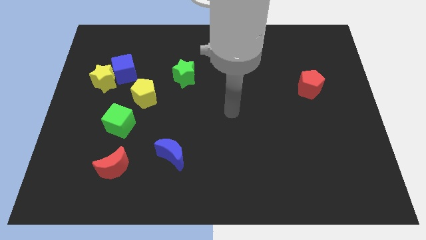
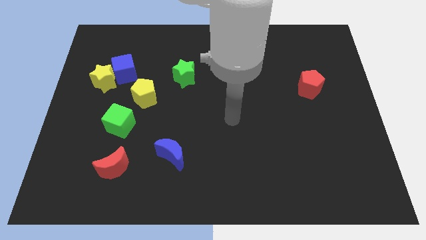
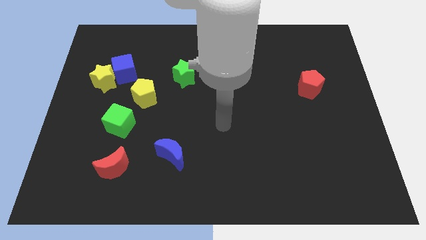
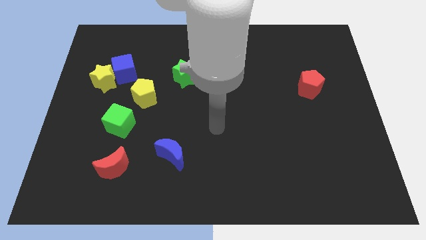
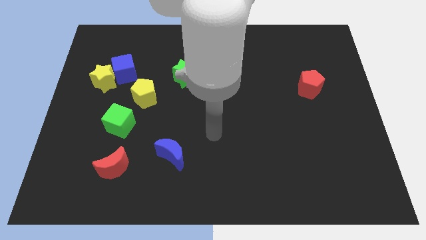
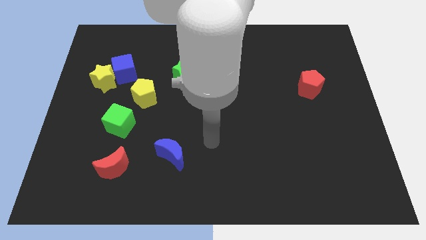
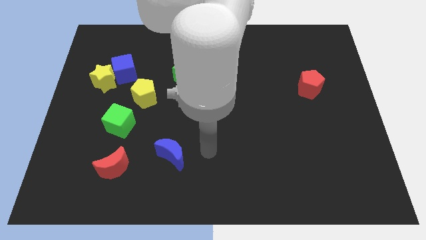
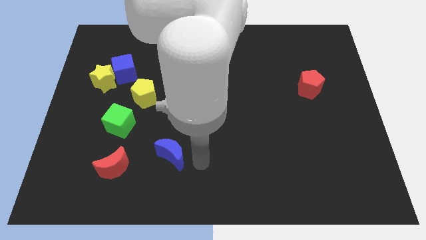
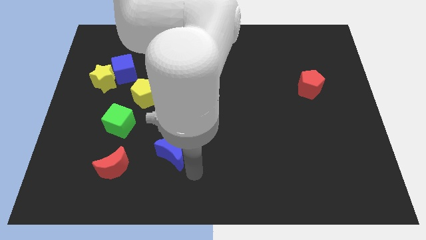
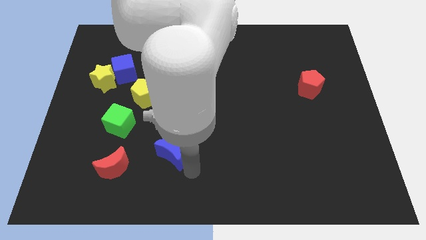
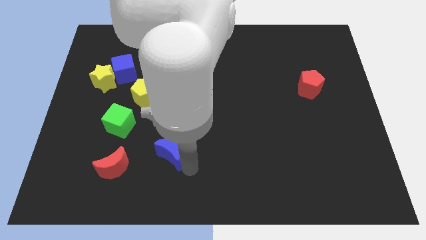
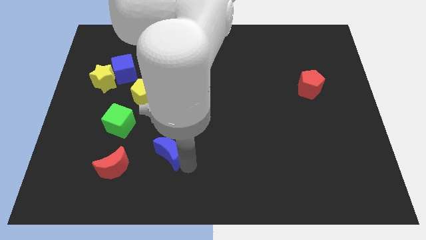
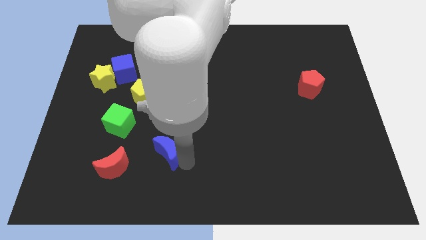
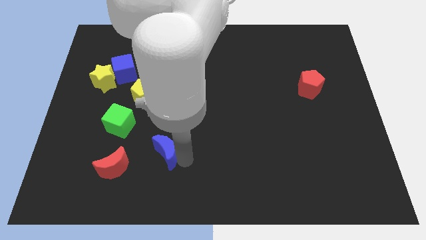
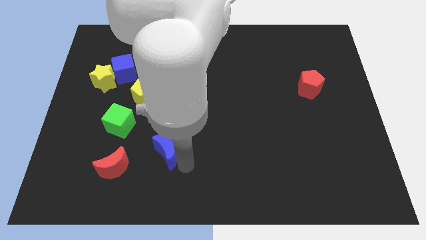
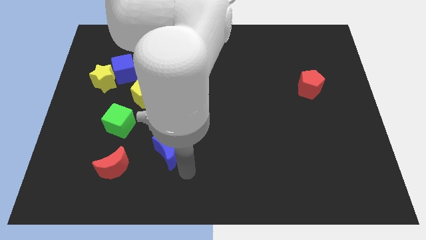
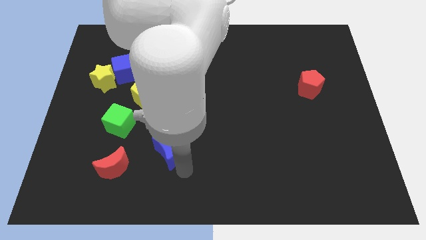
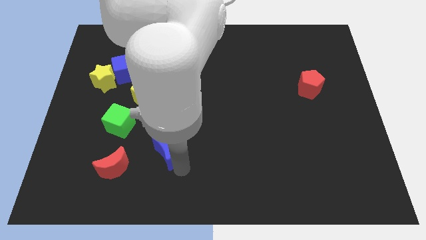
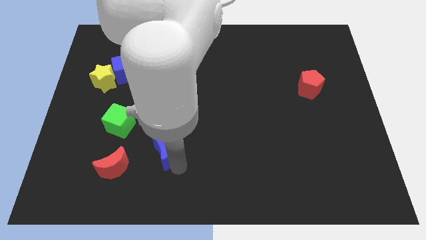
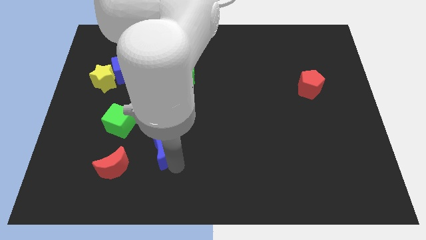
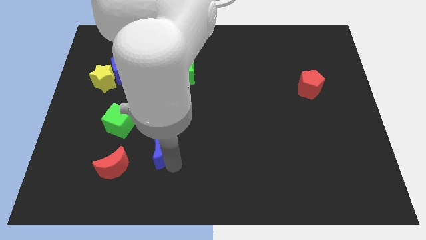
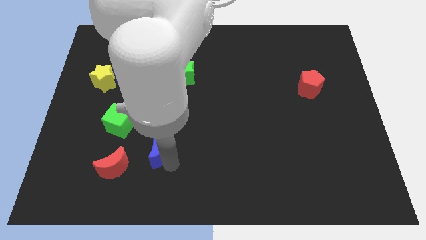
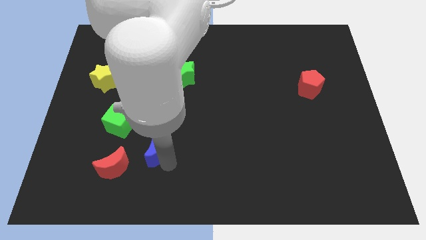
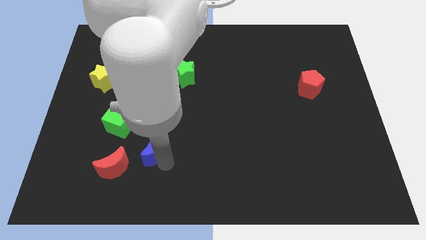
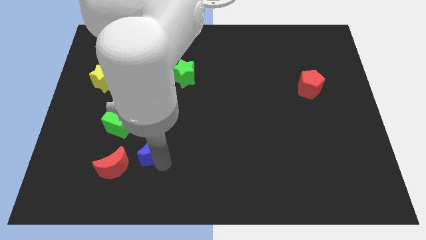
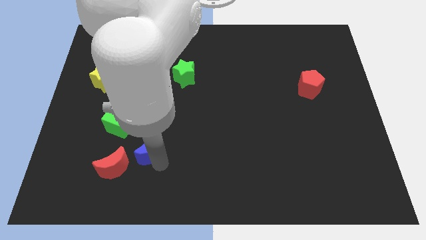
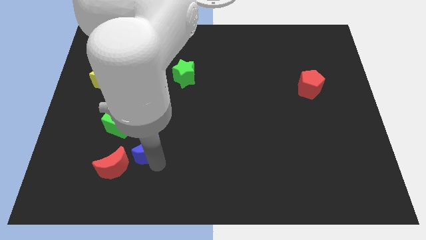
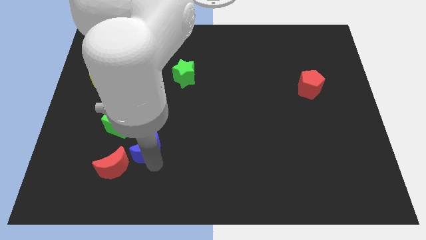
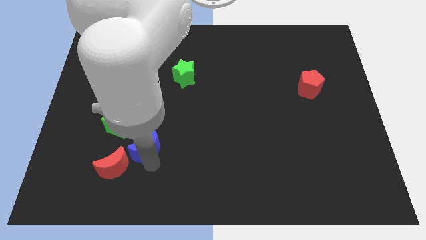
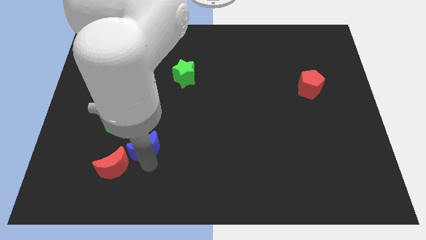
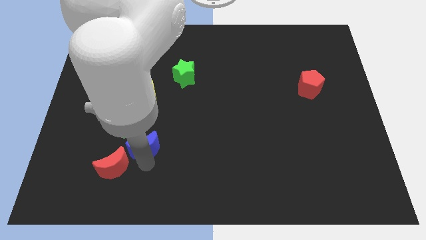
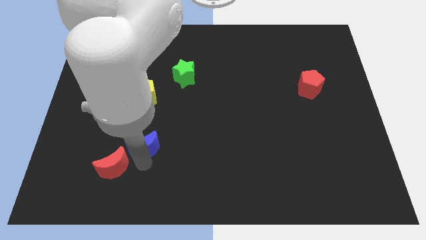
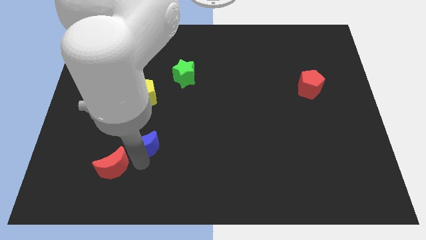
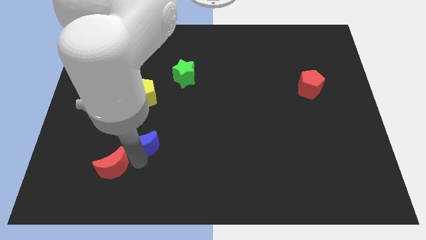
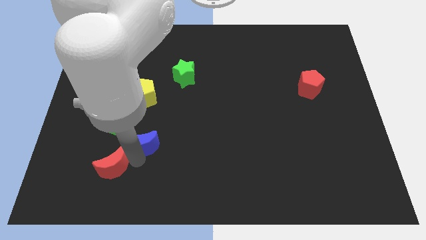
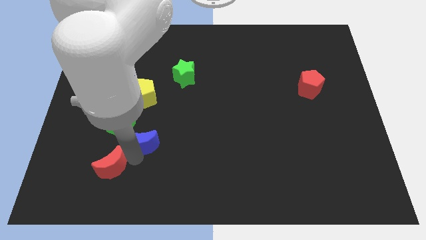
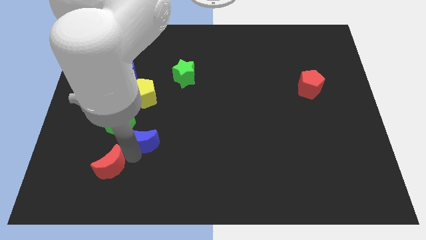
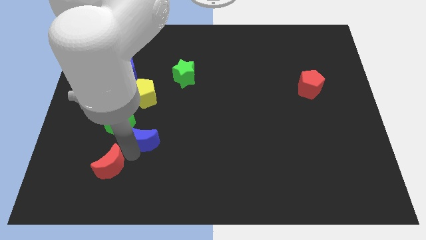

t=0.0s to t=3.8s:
slightly push the blue moon upwards and left

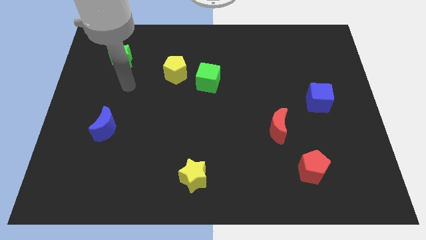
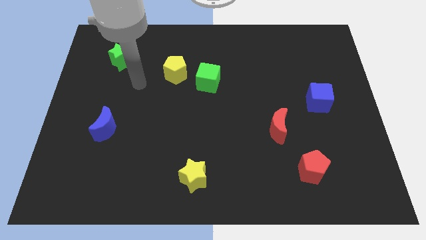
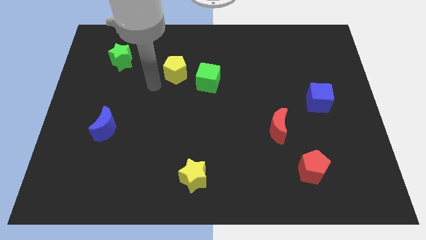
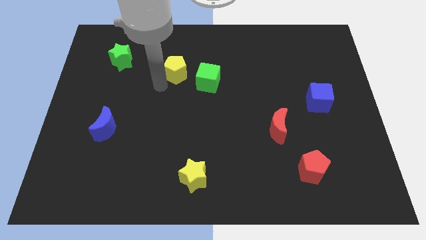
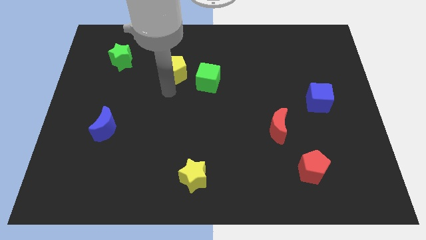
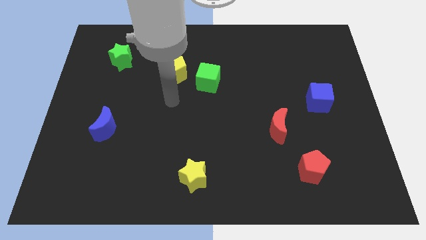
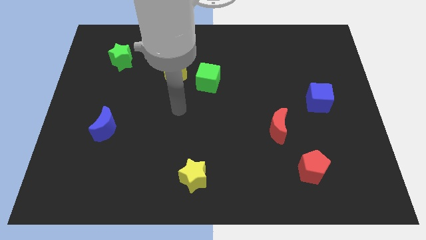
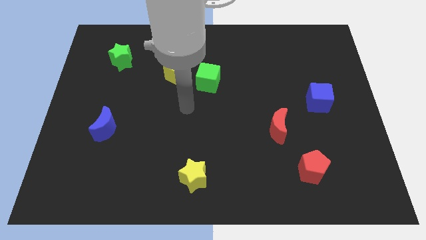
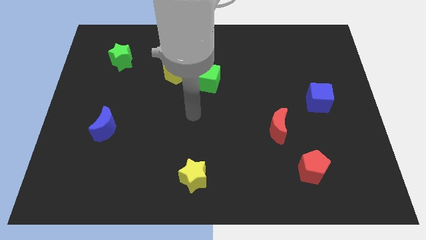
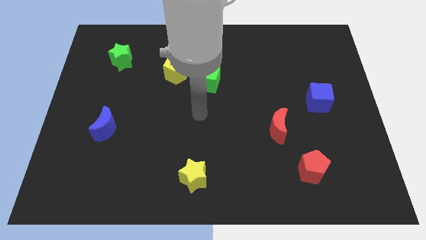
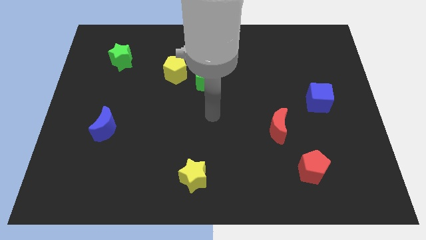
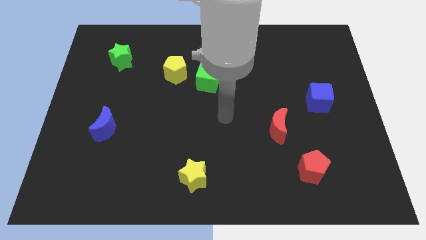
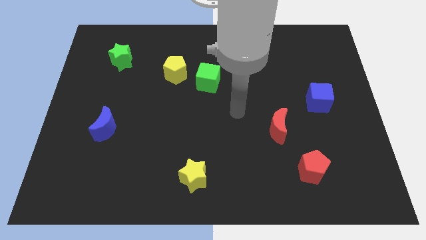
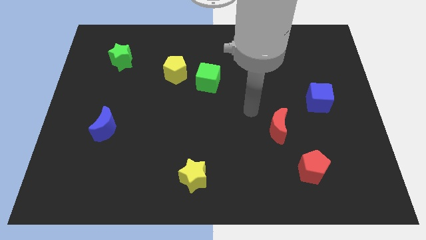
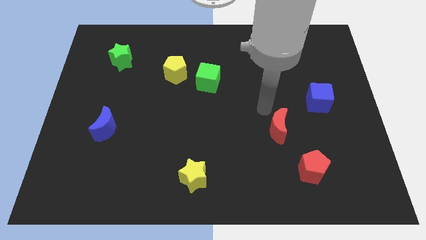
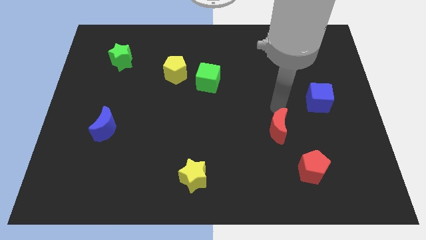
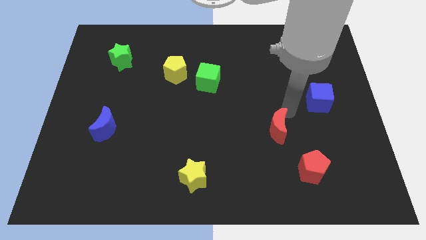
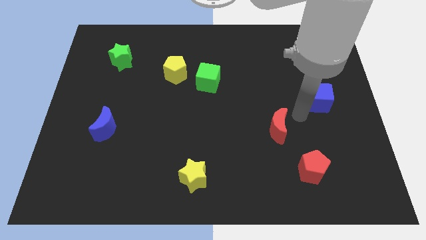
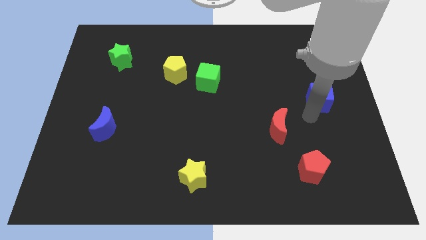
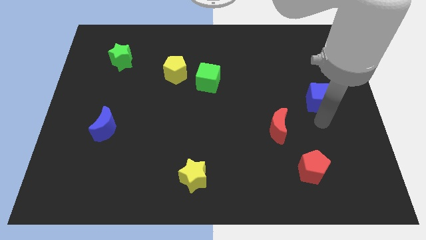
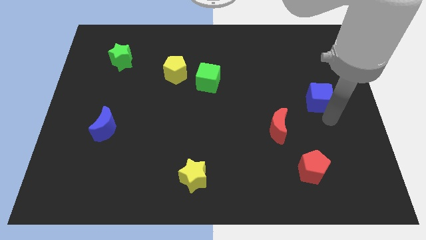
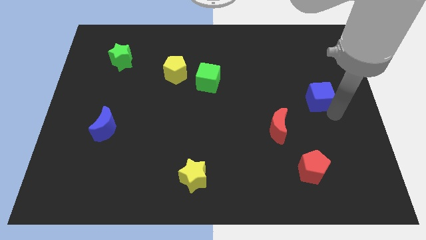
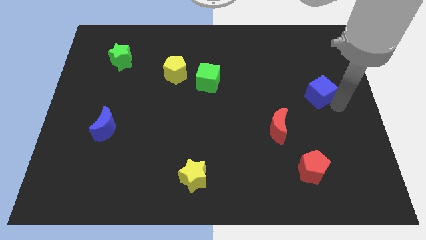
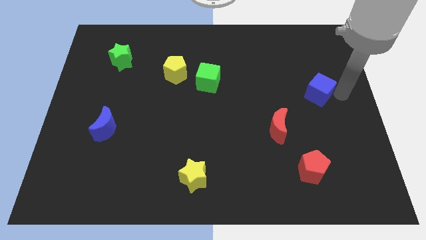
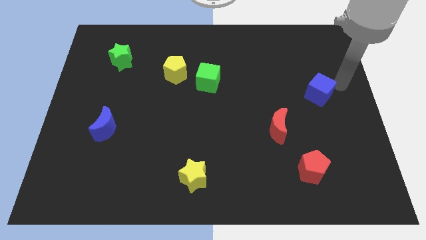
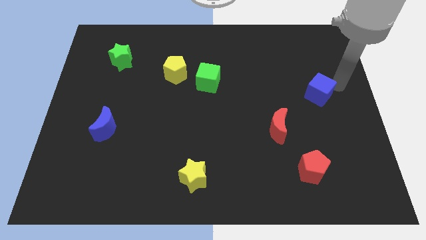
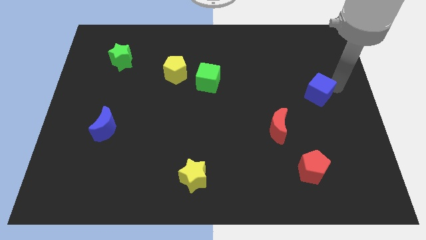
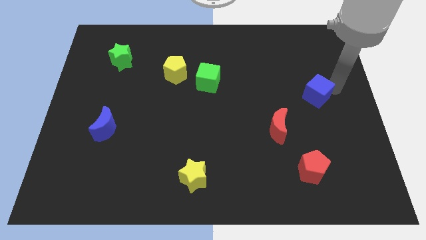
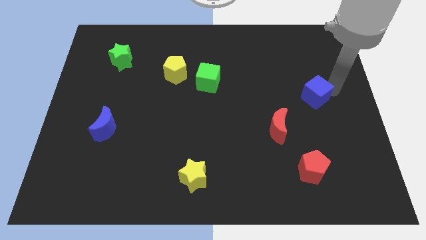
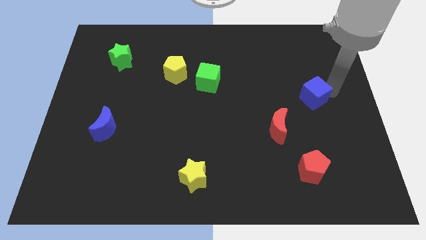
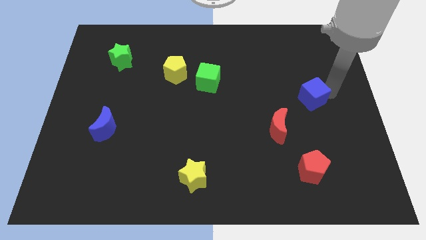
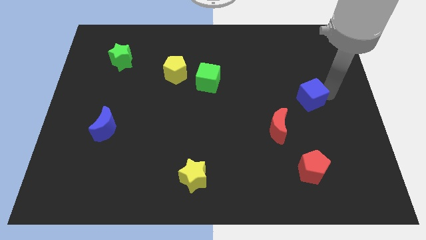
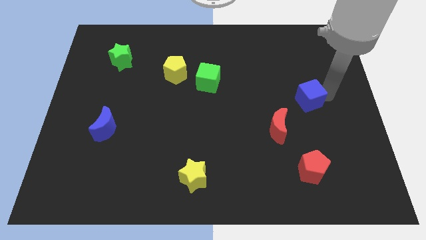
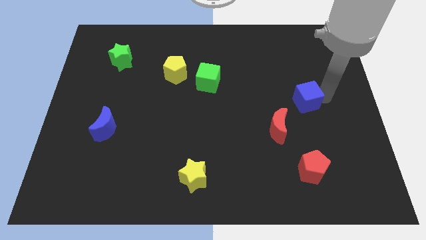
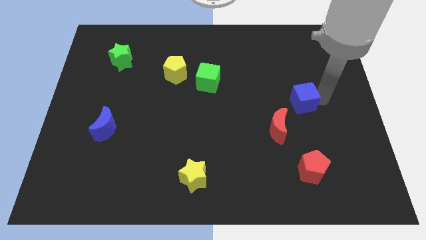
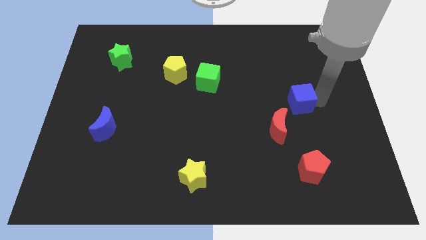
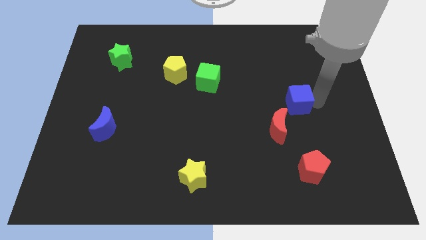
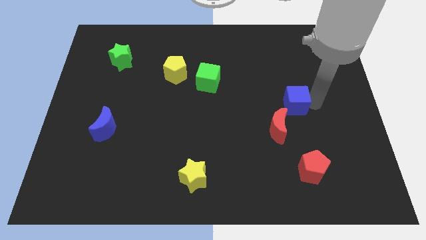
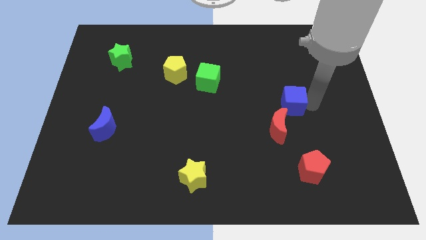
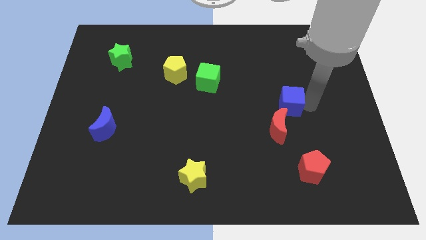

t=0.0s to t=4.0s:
move the blue cube left a little

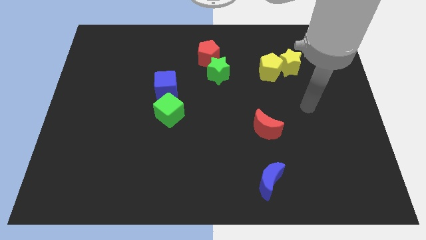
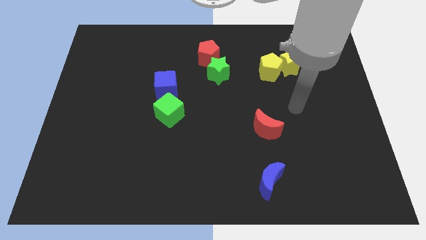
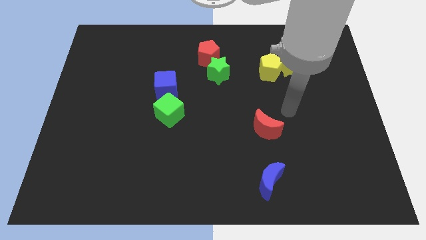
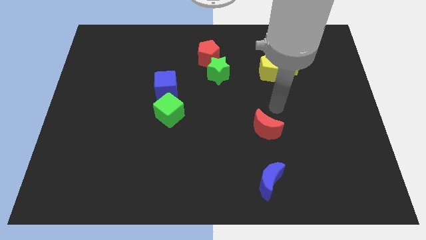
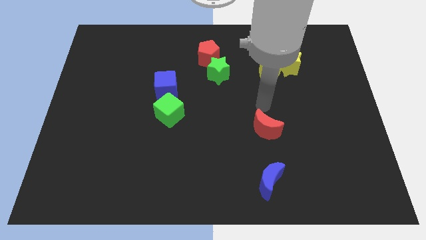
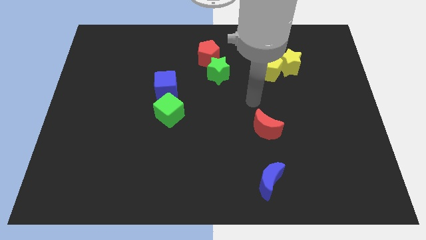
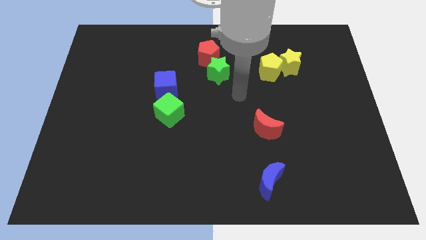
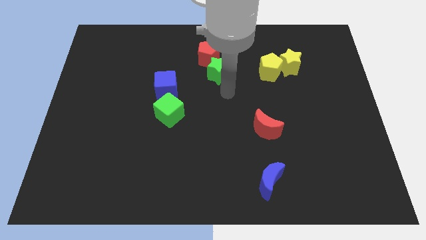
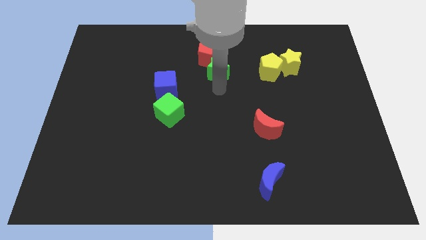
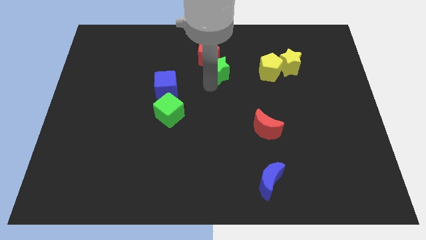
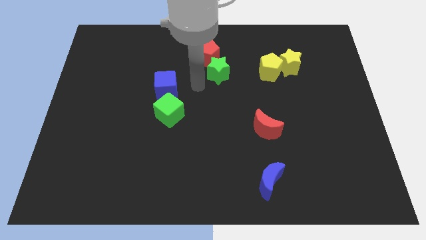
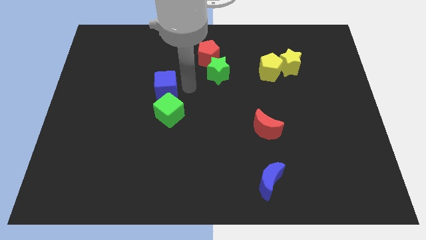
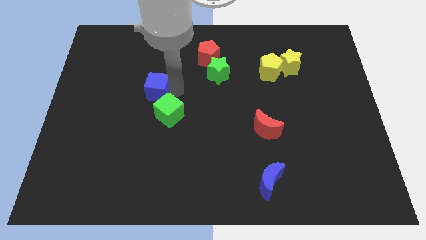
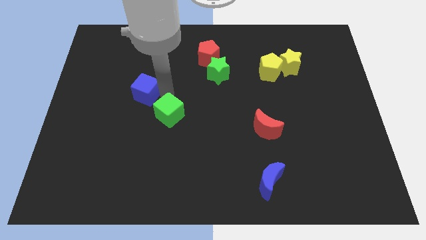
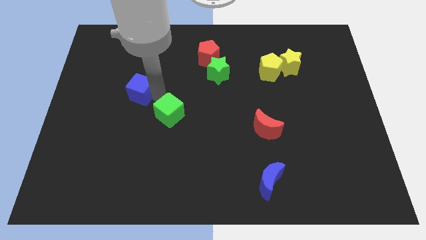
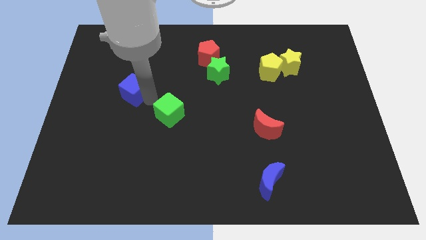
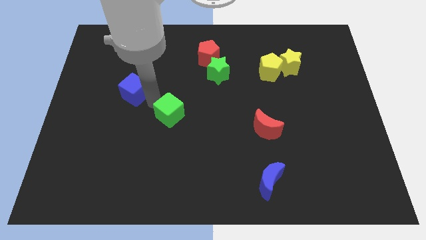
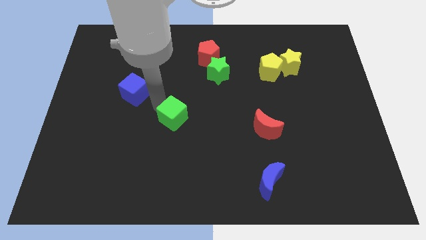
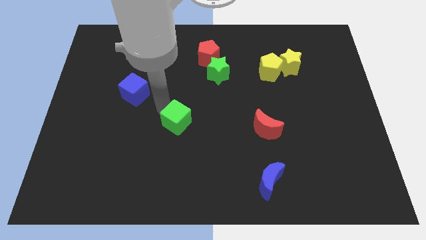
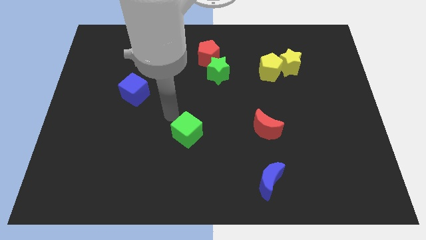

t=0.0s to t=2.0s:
slightly slide the green cube down and then to the right
